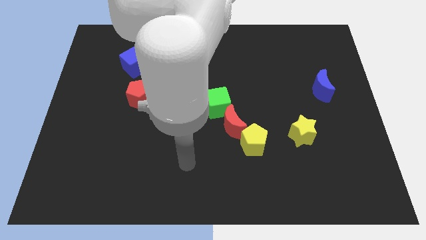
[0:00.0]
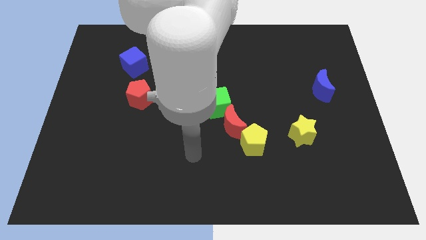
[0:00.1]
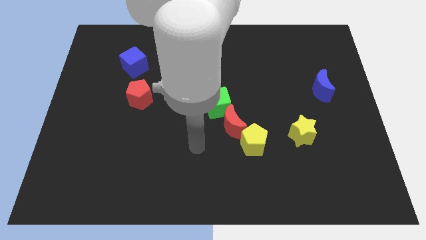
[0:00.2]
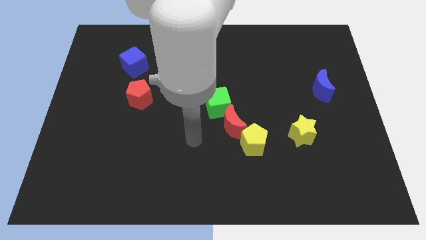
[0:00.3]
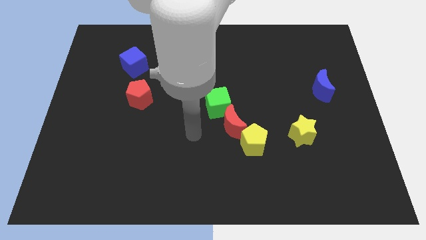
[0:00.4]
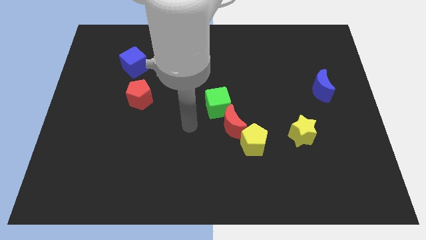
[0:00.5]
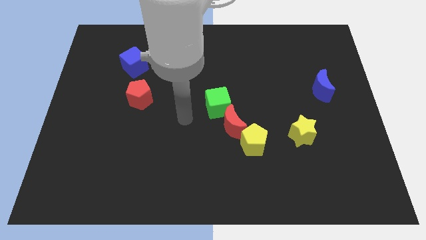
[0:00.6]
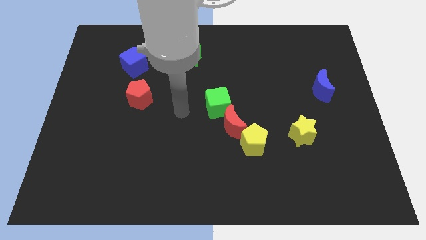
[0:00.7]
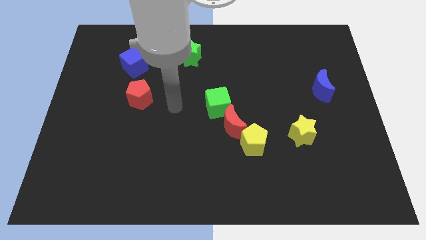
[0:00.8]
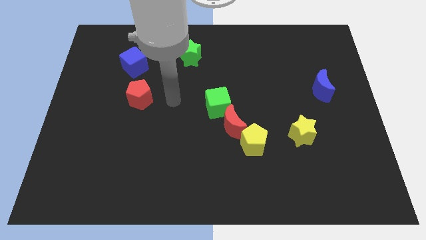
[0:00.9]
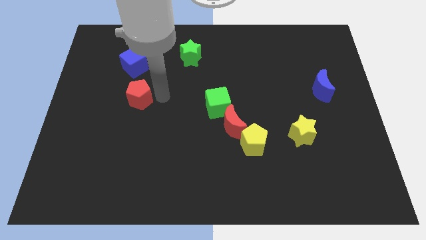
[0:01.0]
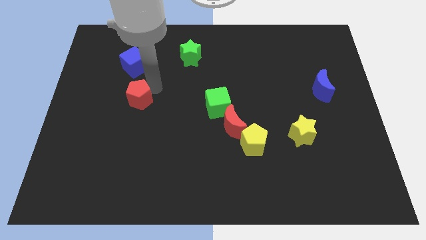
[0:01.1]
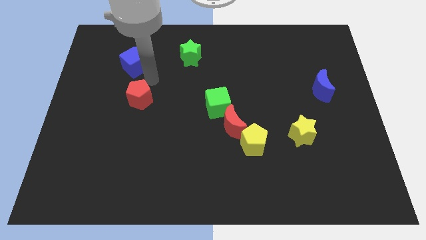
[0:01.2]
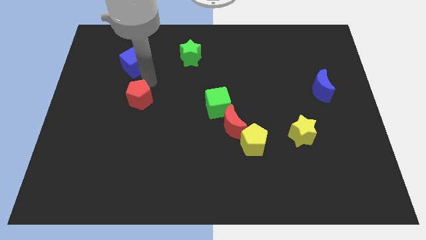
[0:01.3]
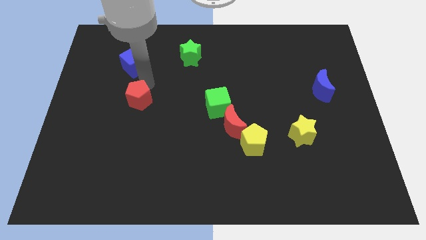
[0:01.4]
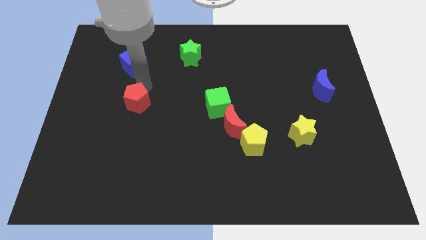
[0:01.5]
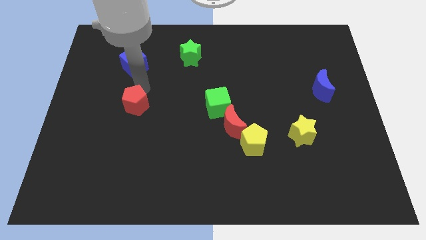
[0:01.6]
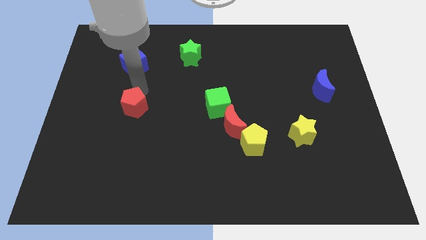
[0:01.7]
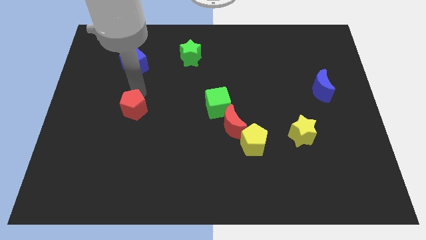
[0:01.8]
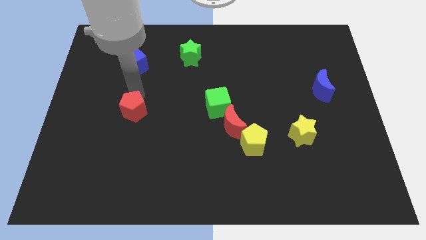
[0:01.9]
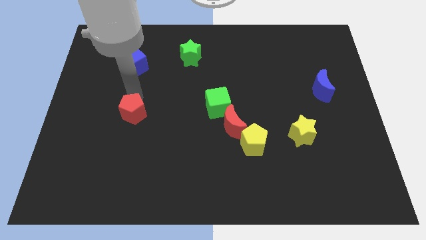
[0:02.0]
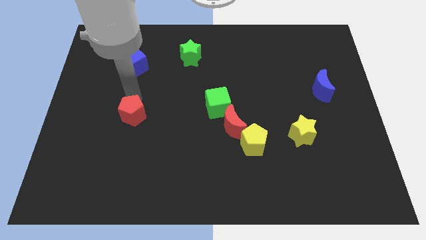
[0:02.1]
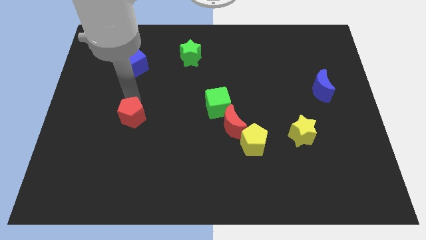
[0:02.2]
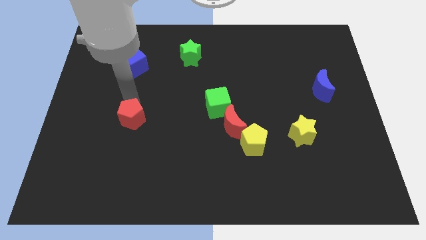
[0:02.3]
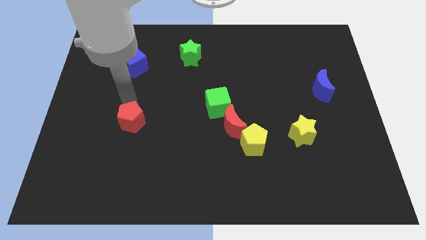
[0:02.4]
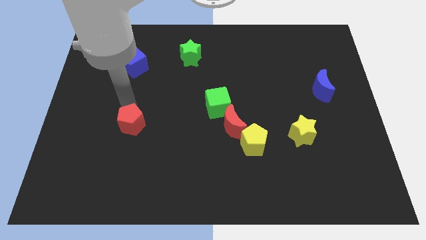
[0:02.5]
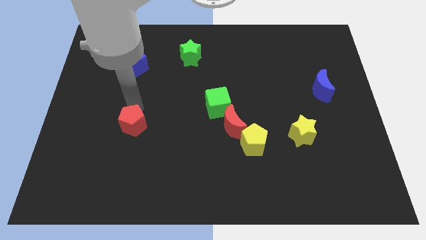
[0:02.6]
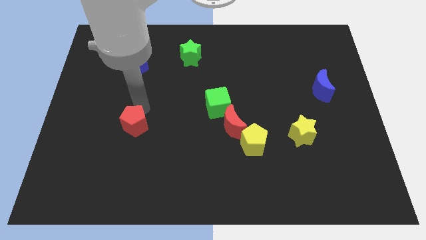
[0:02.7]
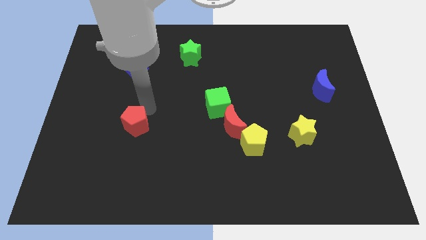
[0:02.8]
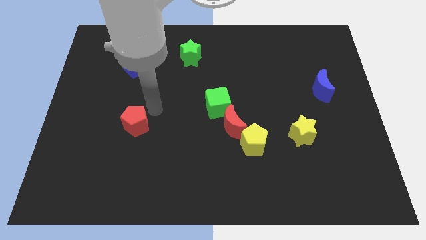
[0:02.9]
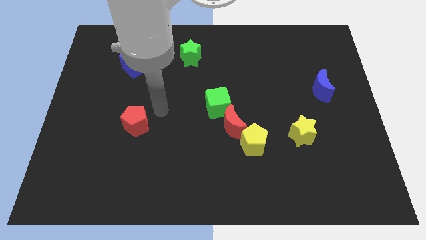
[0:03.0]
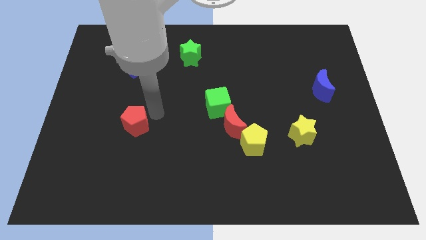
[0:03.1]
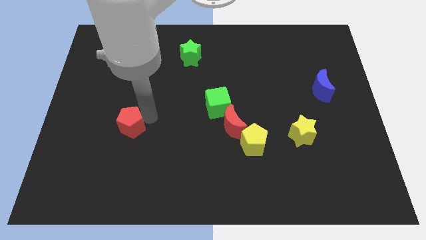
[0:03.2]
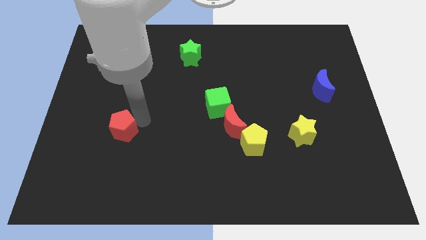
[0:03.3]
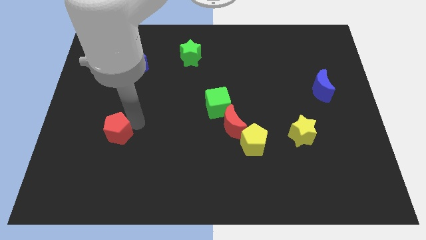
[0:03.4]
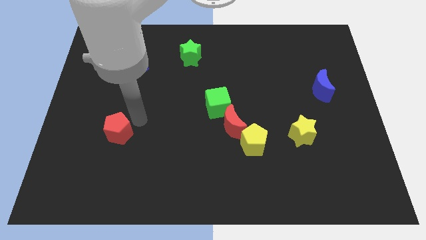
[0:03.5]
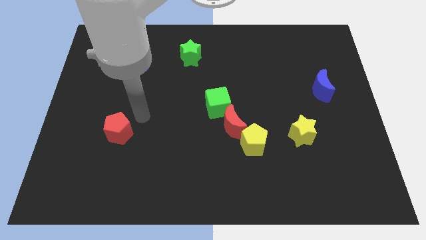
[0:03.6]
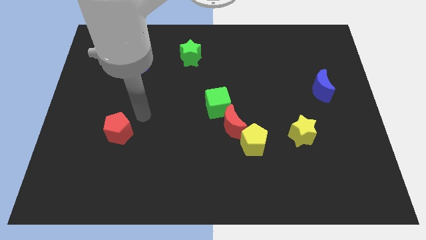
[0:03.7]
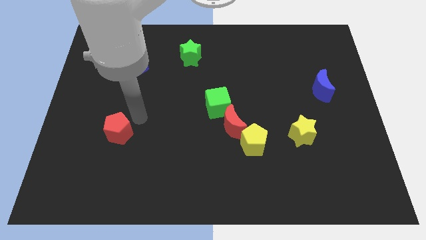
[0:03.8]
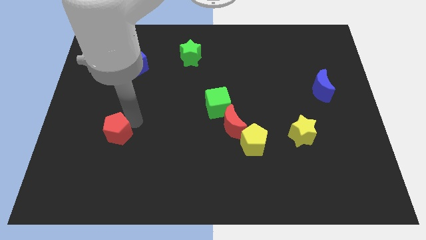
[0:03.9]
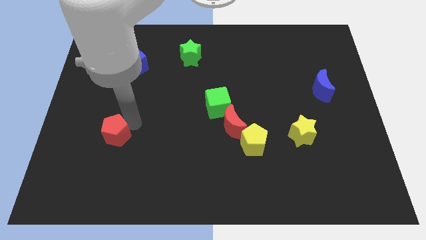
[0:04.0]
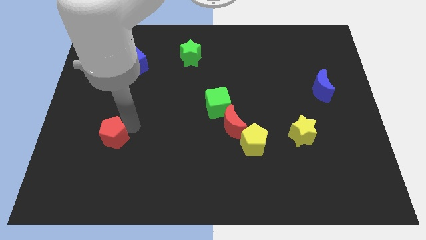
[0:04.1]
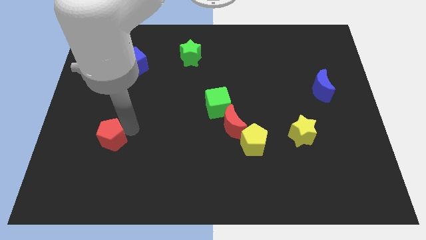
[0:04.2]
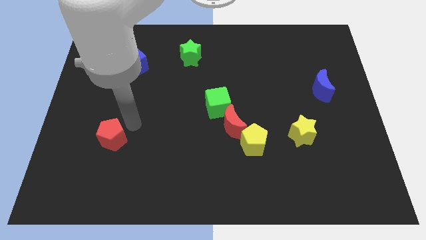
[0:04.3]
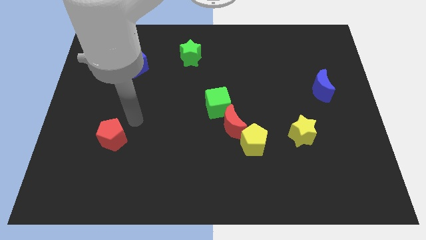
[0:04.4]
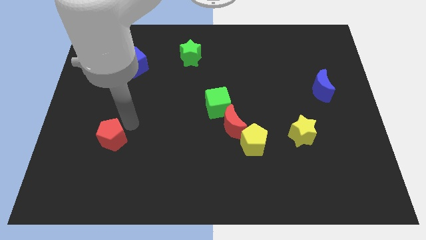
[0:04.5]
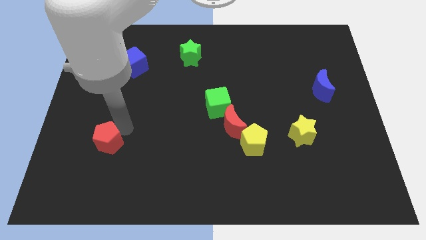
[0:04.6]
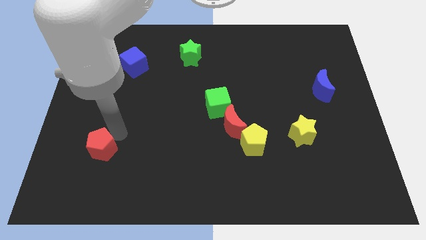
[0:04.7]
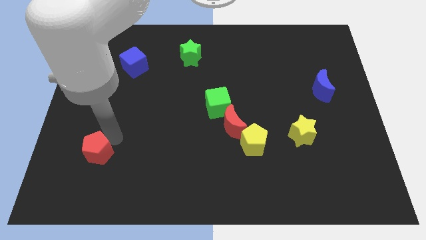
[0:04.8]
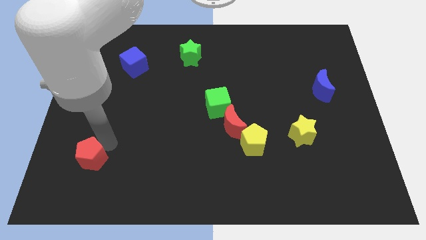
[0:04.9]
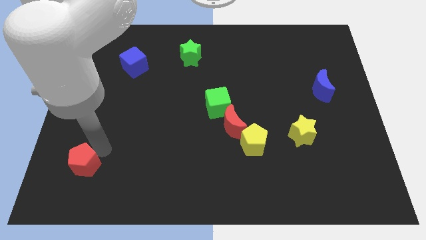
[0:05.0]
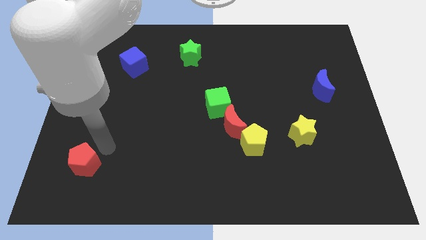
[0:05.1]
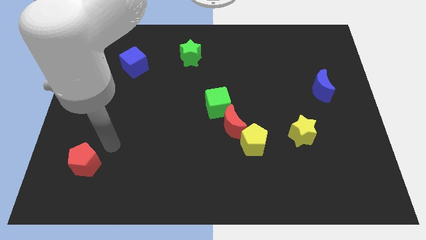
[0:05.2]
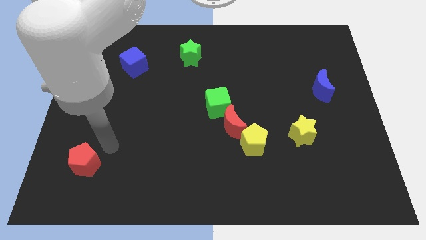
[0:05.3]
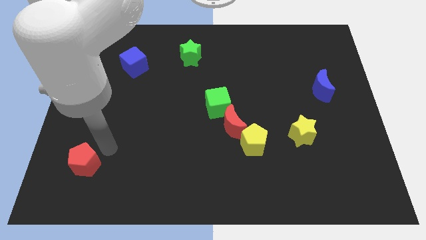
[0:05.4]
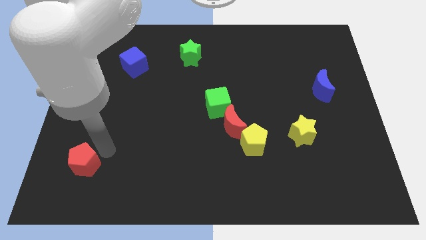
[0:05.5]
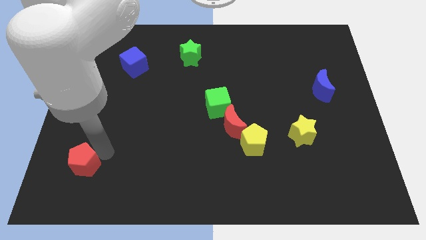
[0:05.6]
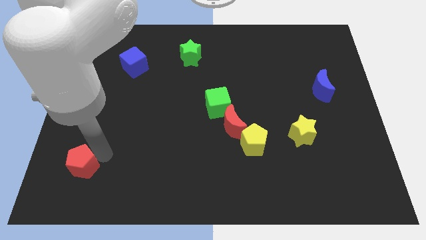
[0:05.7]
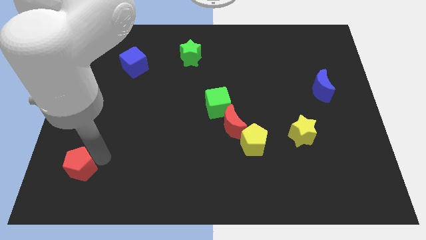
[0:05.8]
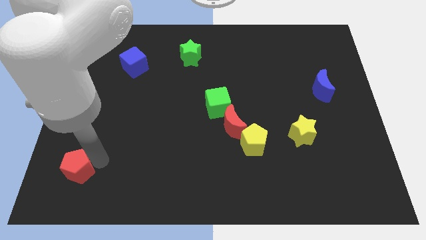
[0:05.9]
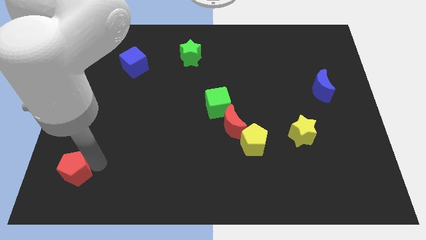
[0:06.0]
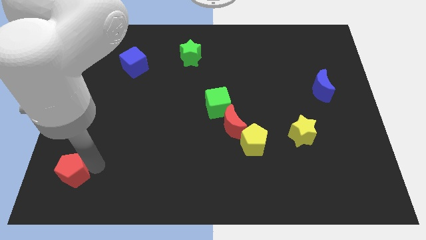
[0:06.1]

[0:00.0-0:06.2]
slide the red pentagon to the bottom left of the board

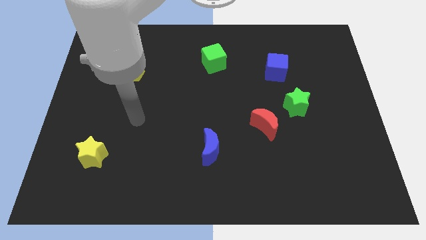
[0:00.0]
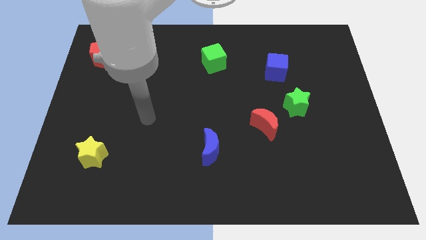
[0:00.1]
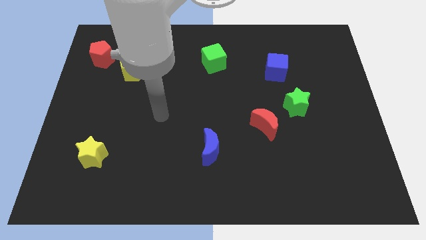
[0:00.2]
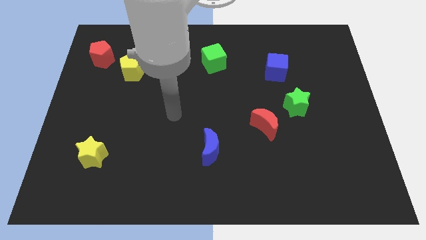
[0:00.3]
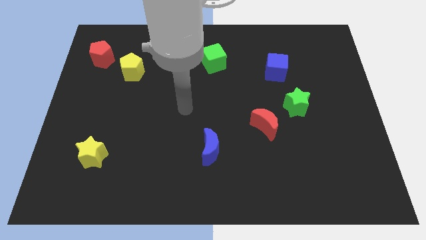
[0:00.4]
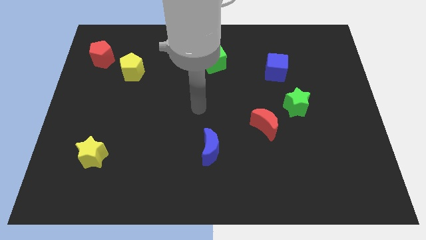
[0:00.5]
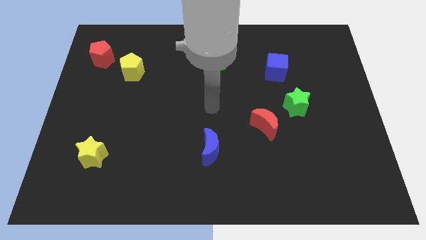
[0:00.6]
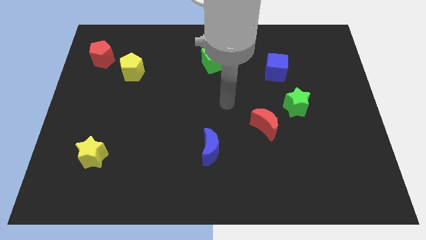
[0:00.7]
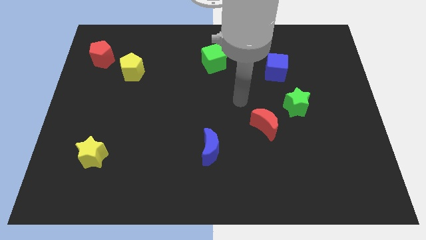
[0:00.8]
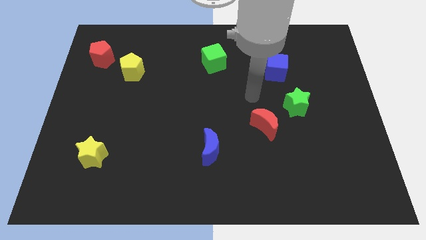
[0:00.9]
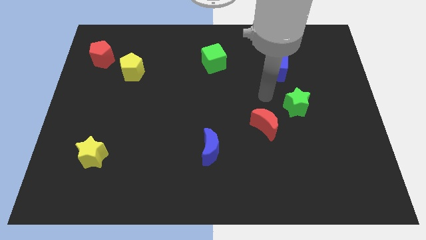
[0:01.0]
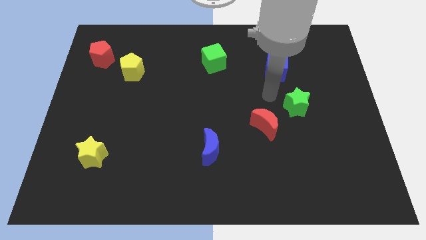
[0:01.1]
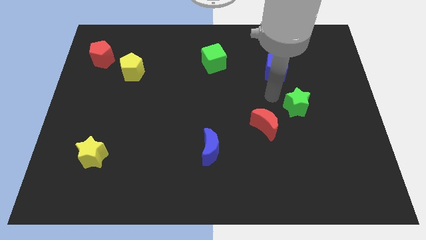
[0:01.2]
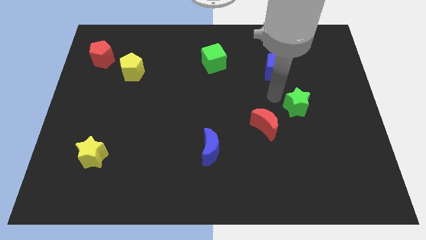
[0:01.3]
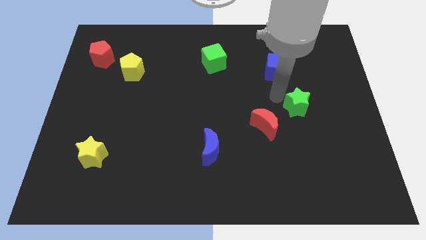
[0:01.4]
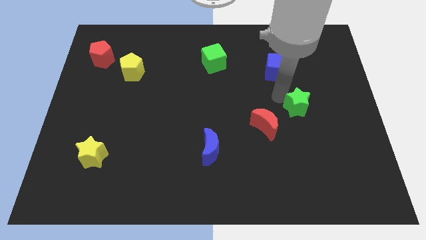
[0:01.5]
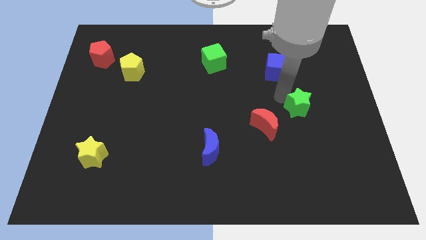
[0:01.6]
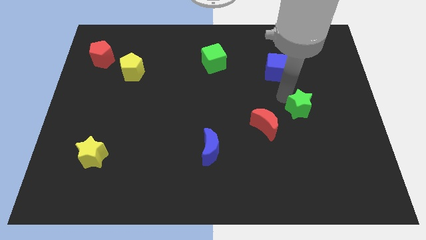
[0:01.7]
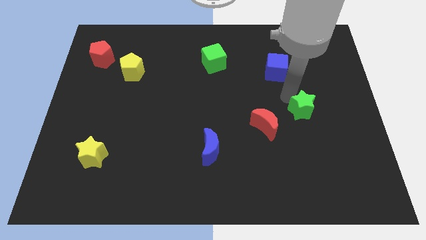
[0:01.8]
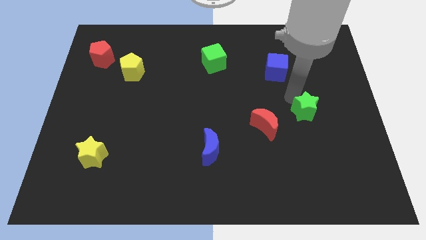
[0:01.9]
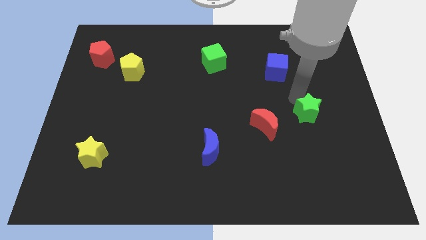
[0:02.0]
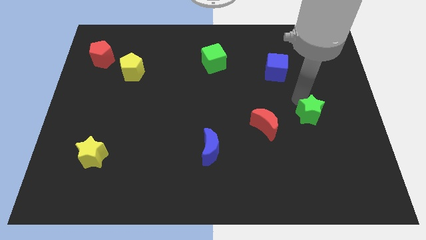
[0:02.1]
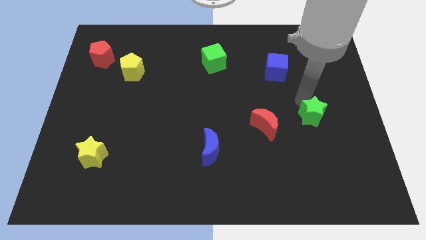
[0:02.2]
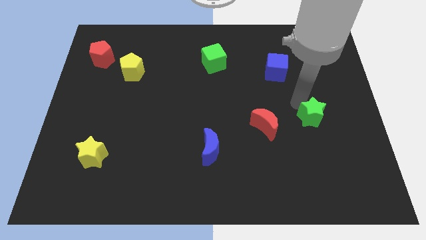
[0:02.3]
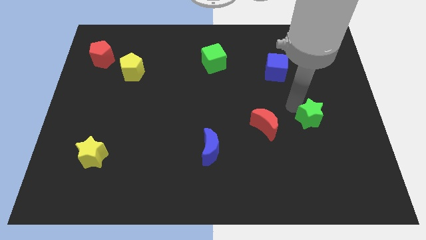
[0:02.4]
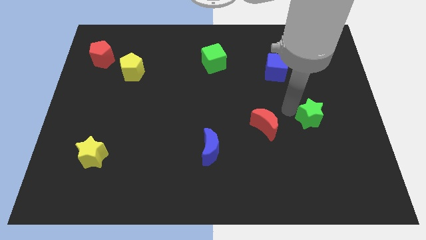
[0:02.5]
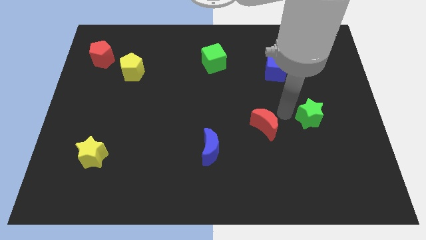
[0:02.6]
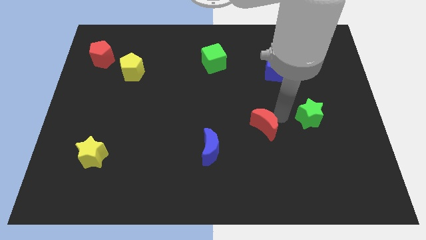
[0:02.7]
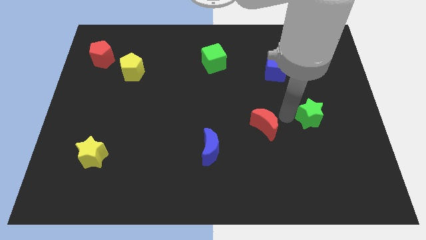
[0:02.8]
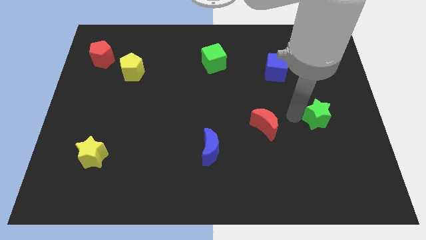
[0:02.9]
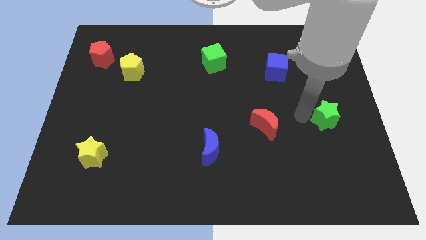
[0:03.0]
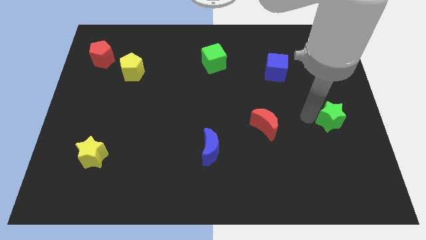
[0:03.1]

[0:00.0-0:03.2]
put the green star to the right side
